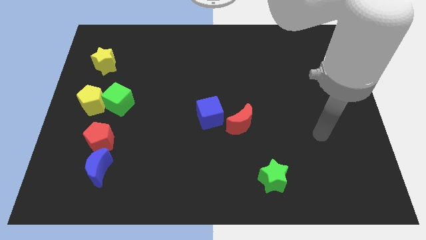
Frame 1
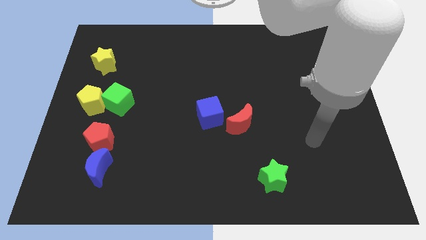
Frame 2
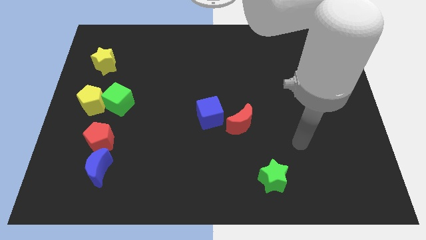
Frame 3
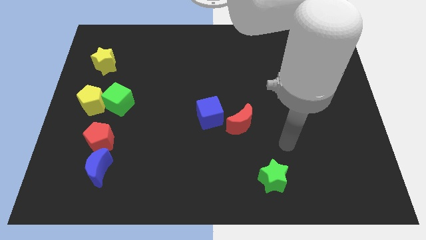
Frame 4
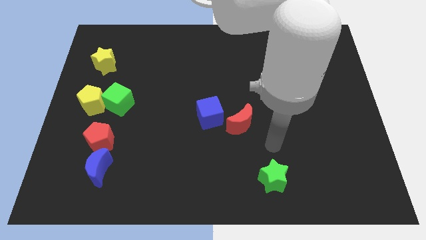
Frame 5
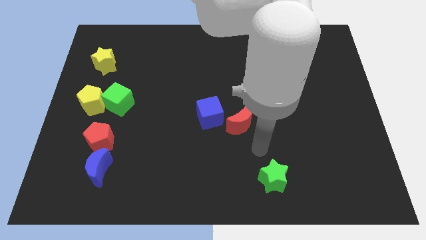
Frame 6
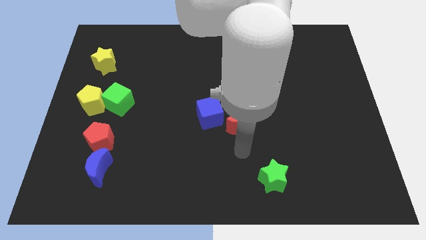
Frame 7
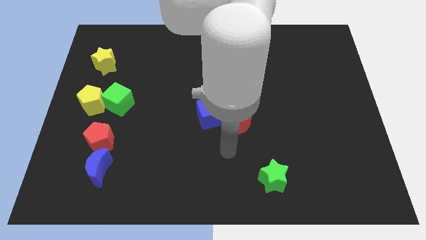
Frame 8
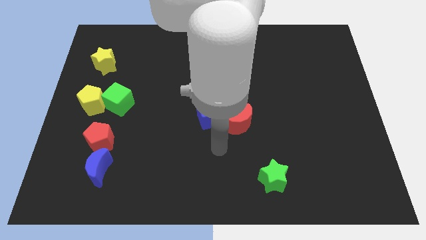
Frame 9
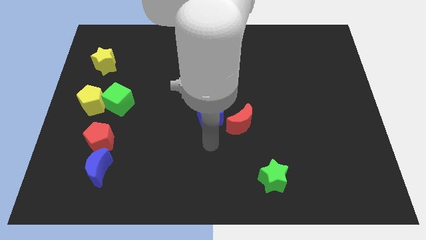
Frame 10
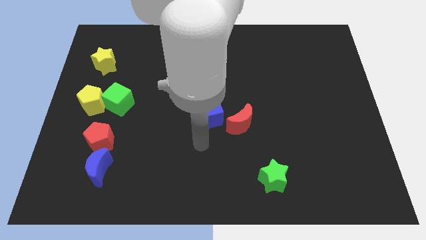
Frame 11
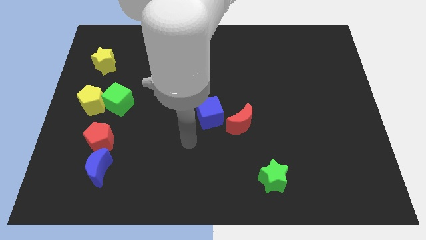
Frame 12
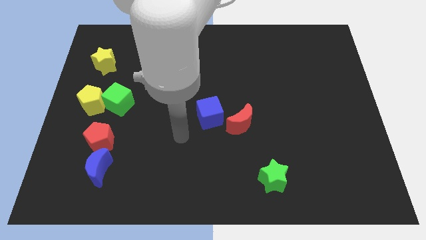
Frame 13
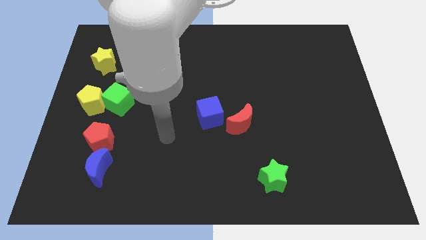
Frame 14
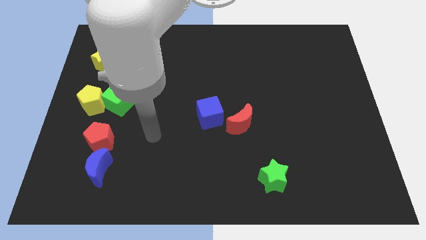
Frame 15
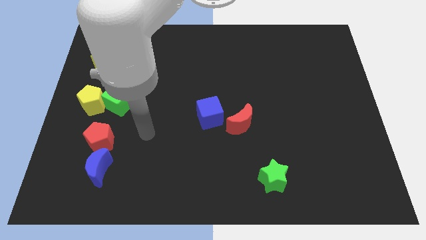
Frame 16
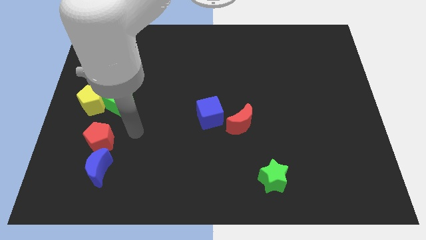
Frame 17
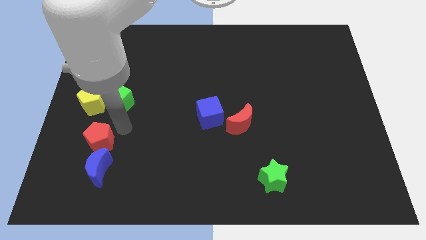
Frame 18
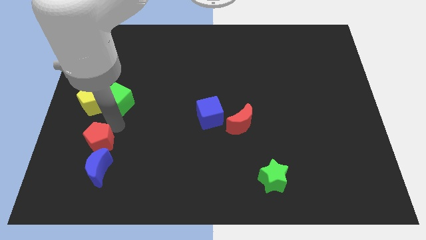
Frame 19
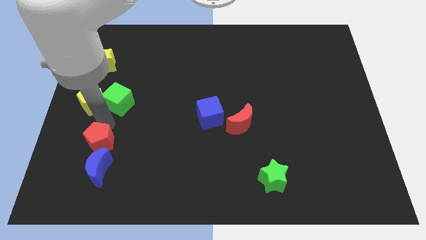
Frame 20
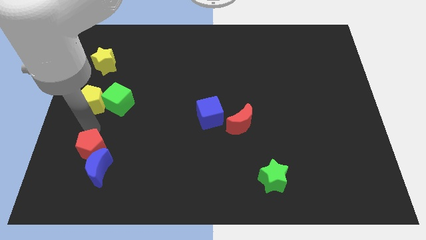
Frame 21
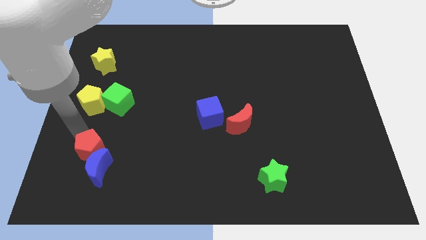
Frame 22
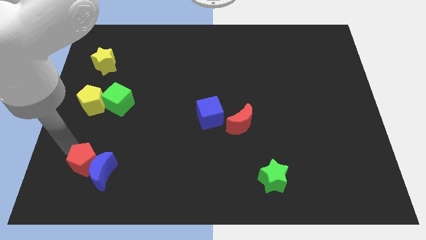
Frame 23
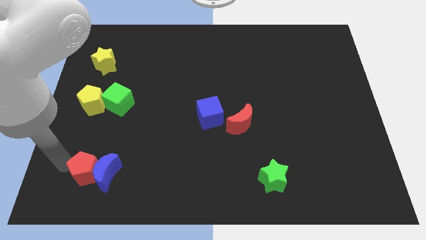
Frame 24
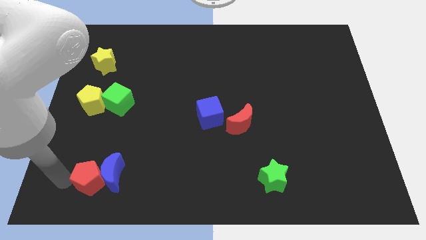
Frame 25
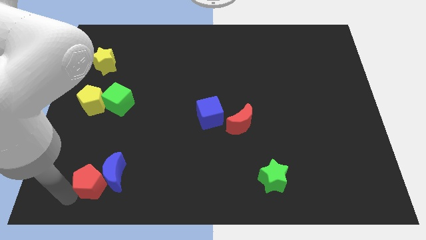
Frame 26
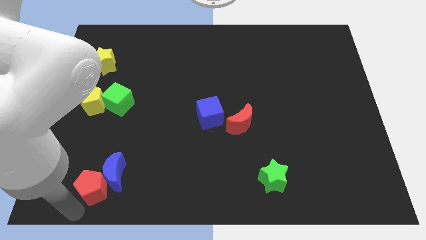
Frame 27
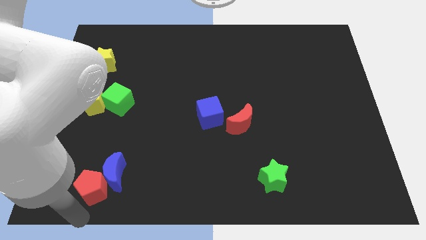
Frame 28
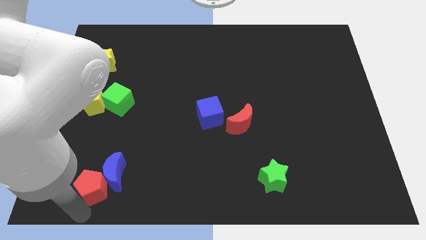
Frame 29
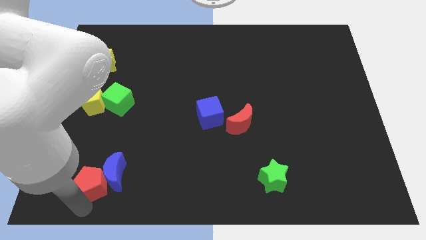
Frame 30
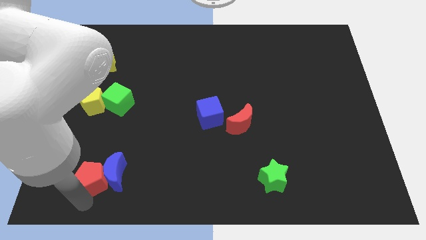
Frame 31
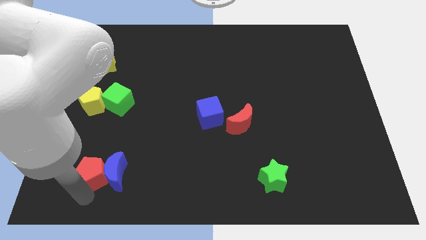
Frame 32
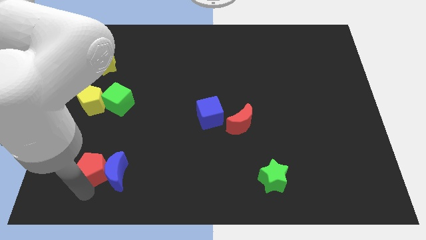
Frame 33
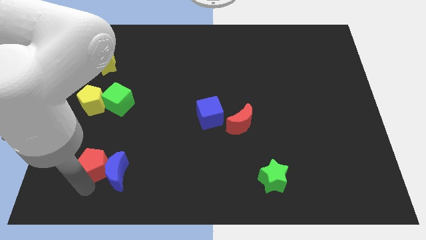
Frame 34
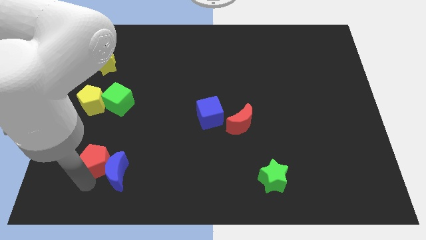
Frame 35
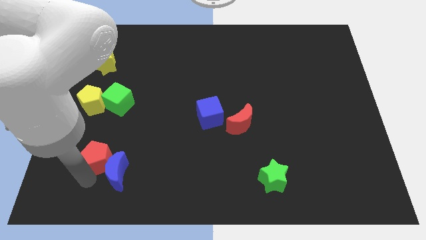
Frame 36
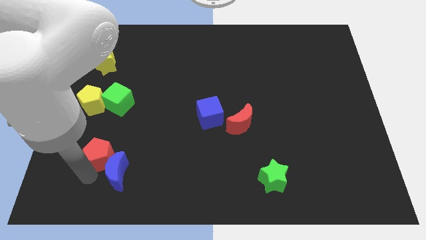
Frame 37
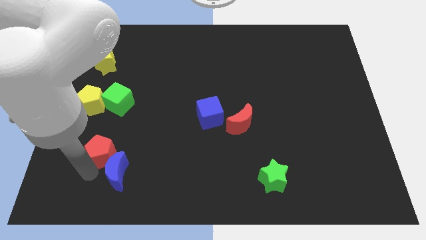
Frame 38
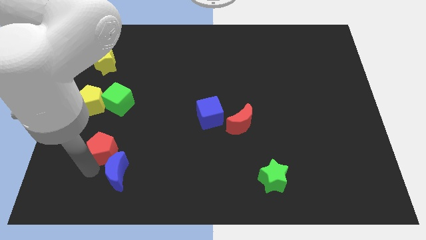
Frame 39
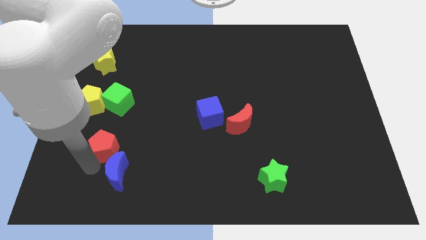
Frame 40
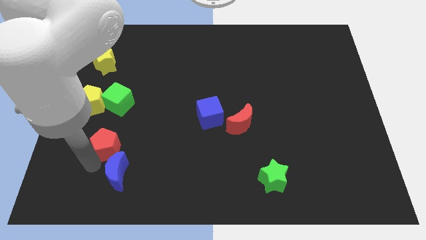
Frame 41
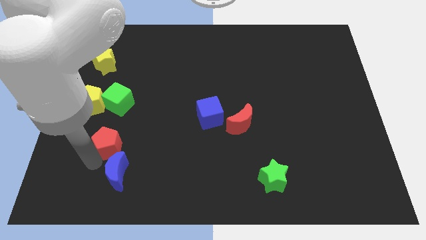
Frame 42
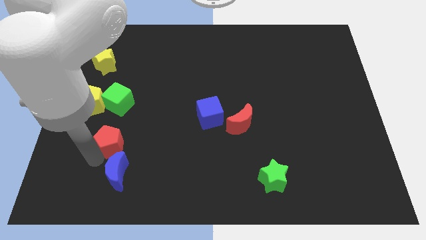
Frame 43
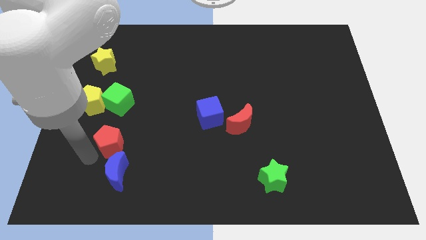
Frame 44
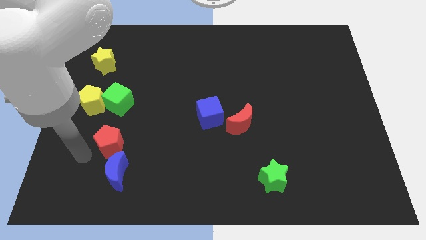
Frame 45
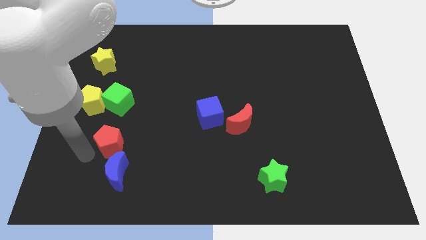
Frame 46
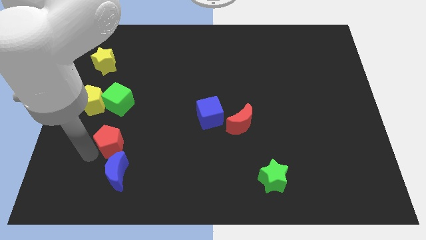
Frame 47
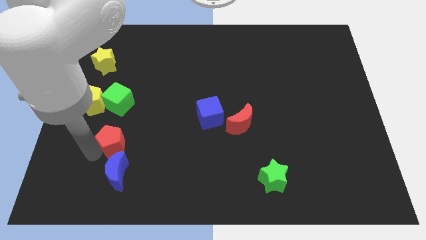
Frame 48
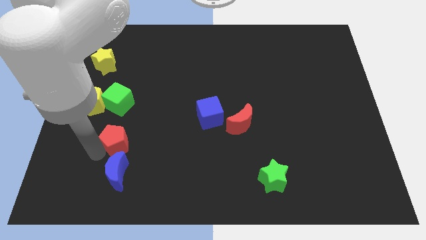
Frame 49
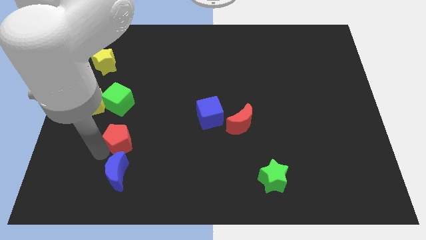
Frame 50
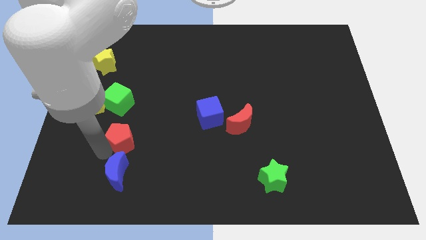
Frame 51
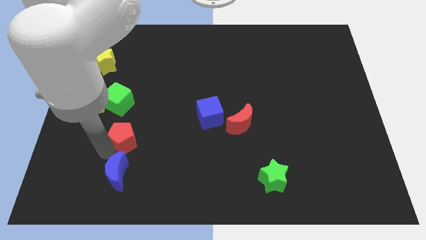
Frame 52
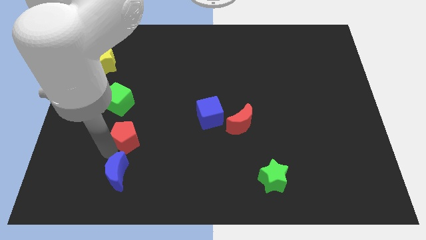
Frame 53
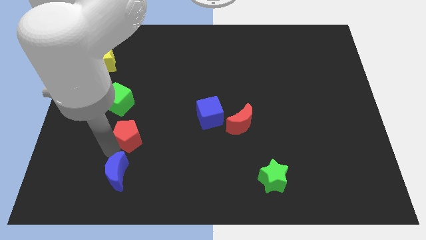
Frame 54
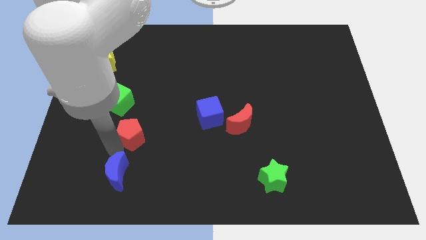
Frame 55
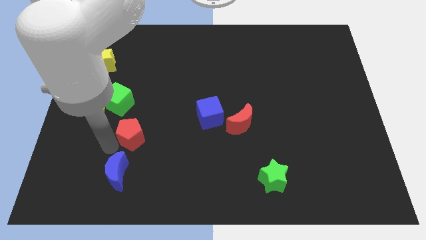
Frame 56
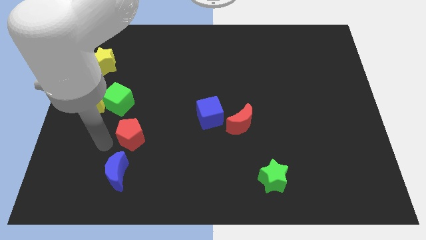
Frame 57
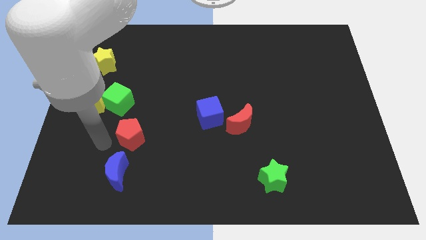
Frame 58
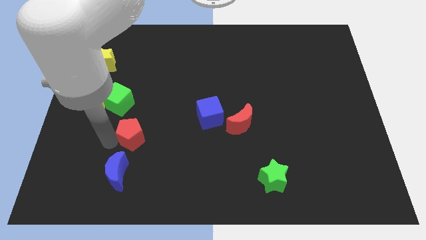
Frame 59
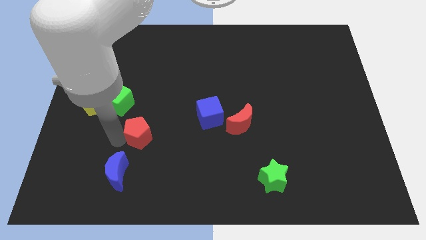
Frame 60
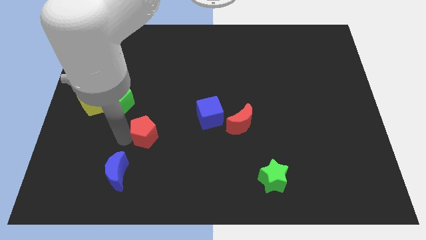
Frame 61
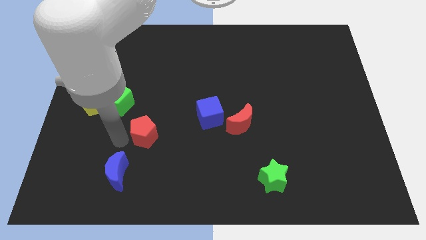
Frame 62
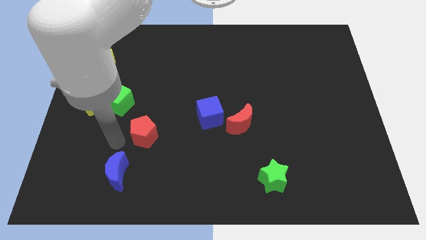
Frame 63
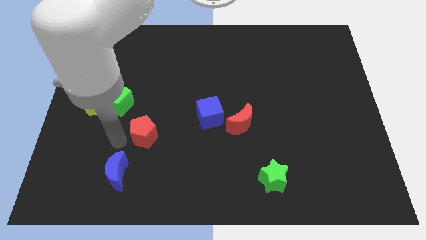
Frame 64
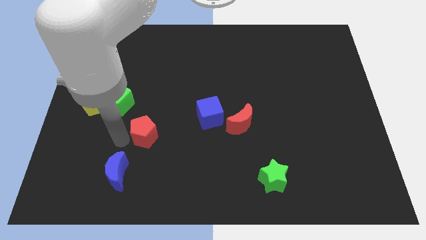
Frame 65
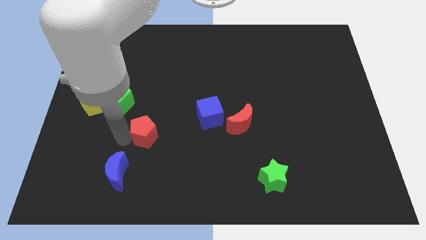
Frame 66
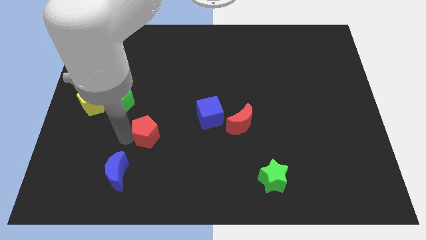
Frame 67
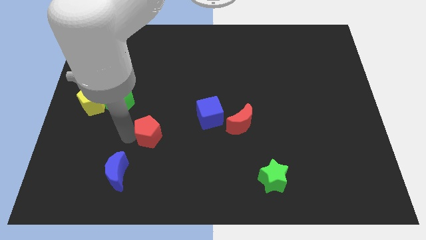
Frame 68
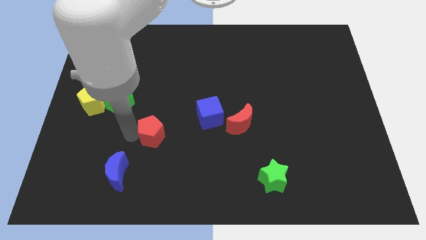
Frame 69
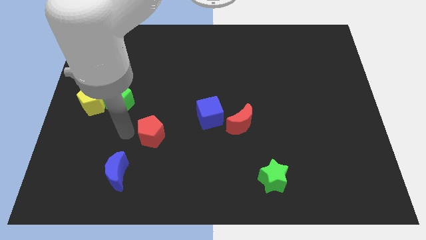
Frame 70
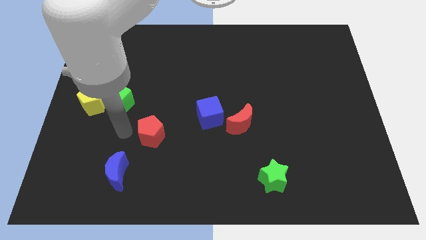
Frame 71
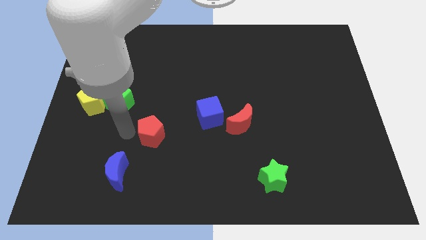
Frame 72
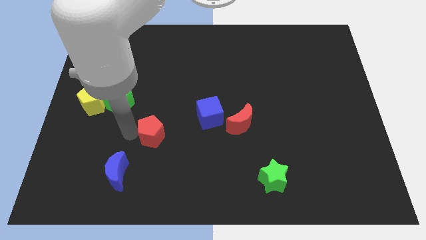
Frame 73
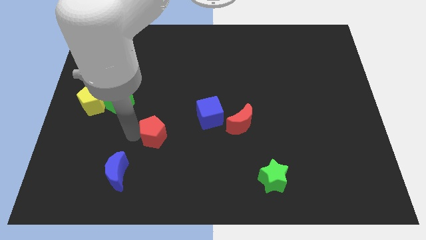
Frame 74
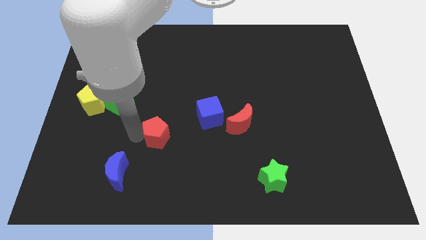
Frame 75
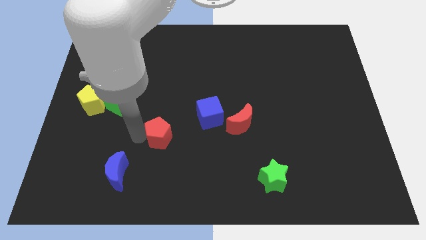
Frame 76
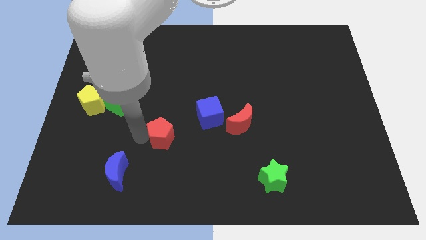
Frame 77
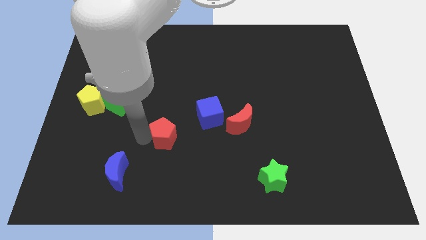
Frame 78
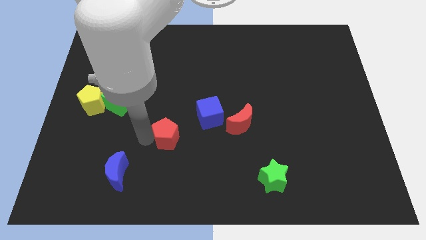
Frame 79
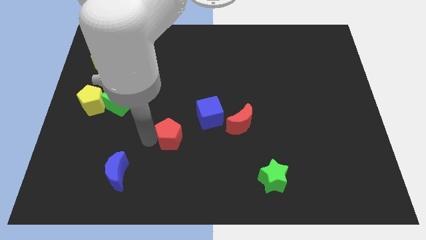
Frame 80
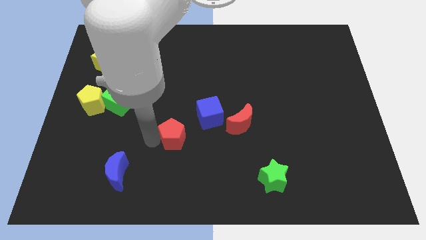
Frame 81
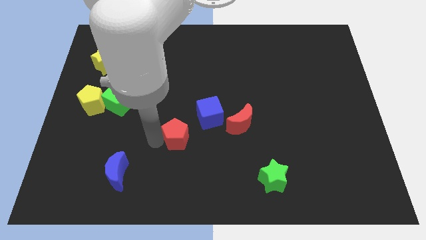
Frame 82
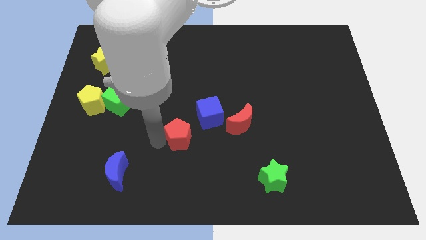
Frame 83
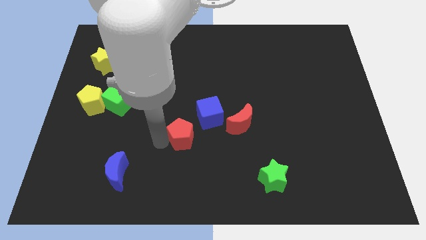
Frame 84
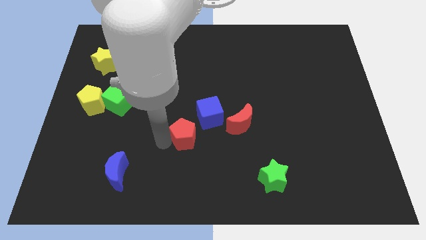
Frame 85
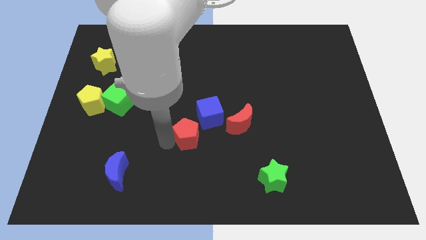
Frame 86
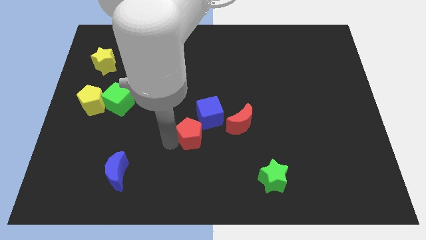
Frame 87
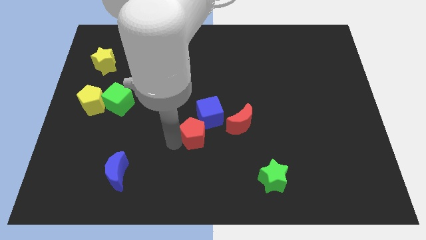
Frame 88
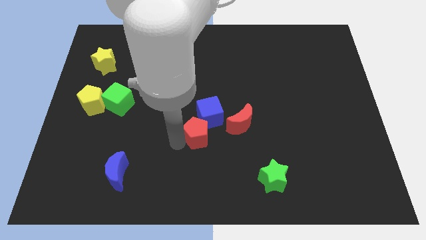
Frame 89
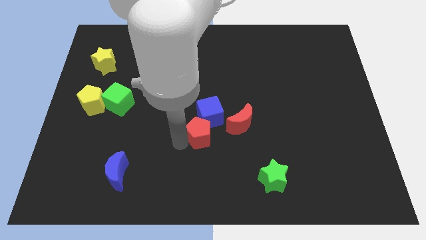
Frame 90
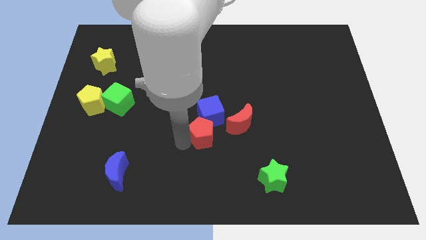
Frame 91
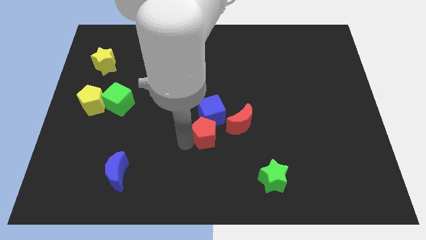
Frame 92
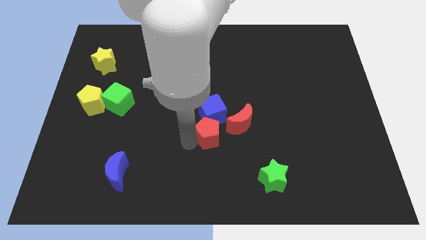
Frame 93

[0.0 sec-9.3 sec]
push the red pentagon to the bottom right of the blue cube
